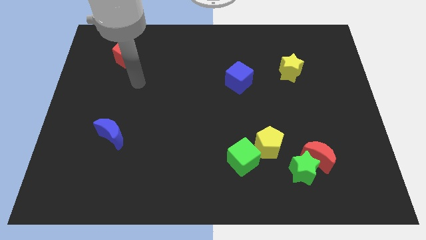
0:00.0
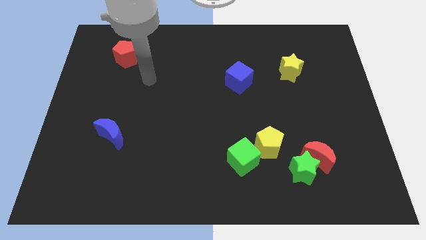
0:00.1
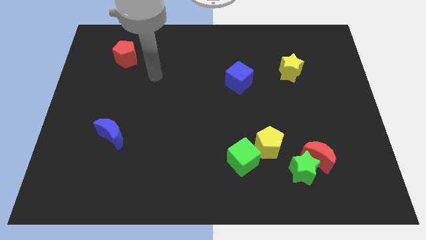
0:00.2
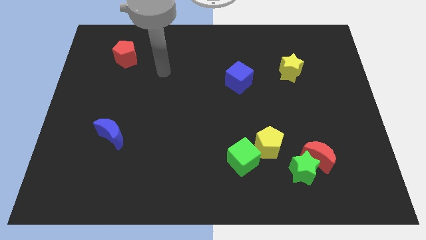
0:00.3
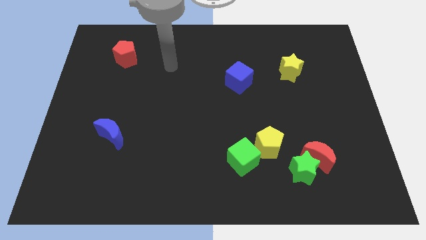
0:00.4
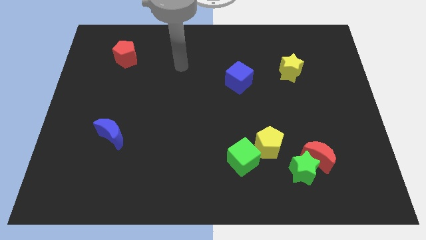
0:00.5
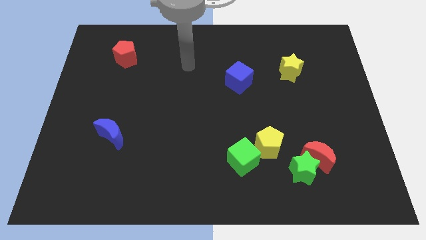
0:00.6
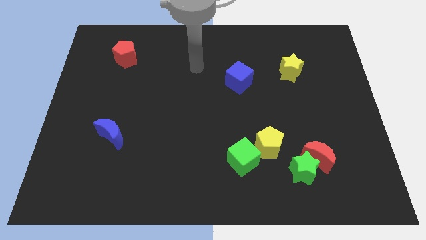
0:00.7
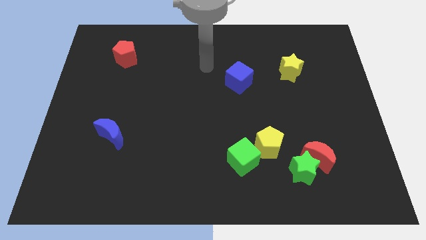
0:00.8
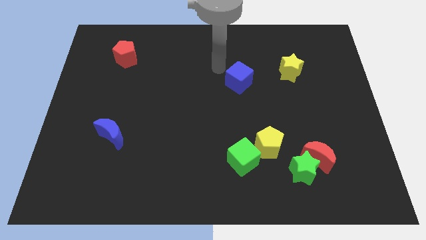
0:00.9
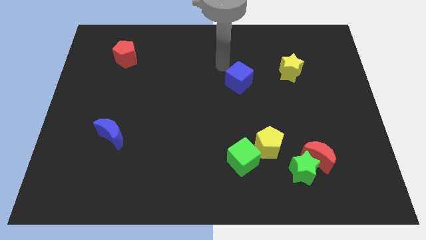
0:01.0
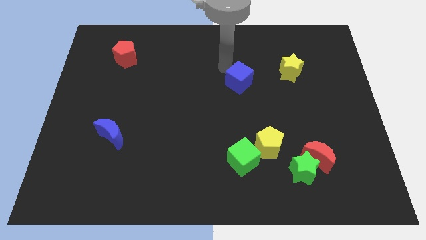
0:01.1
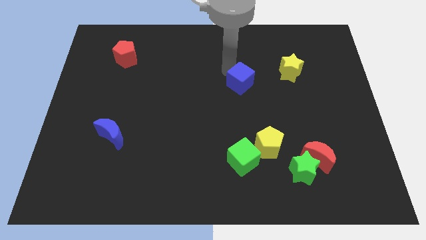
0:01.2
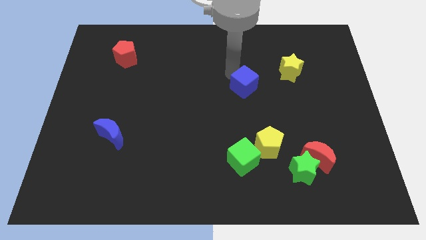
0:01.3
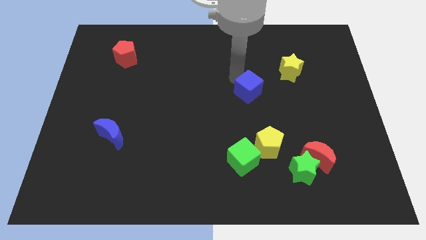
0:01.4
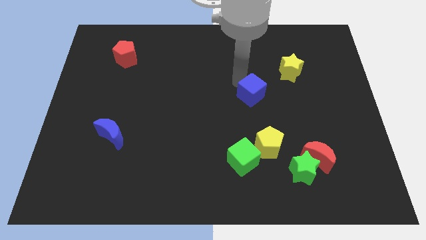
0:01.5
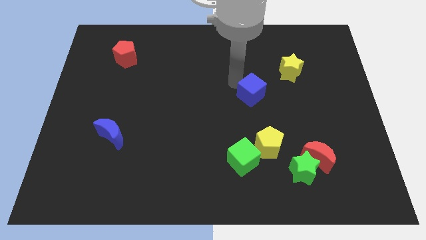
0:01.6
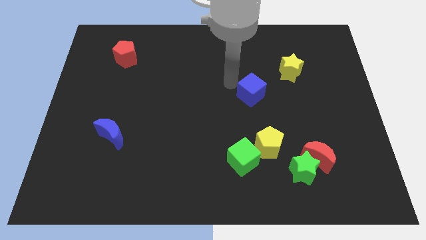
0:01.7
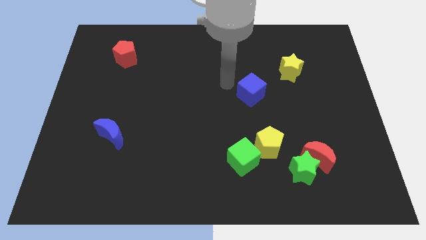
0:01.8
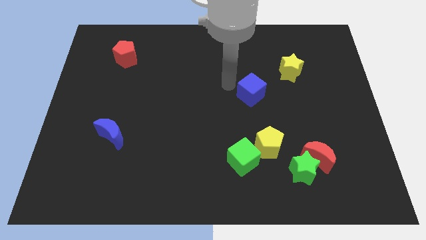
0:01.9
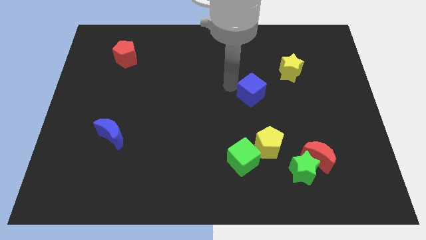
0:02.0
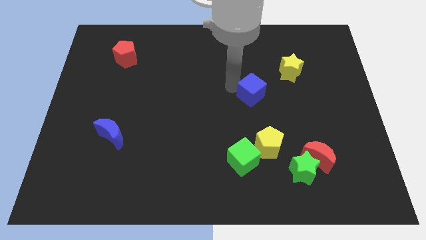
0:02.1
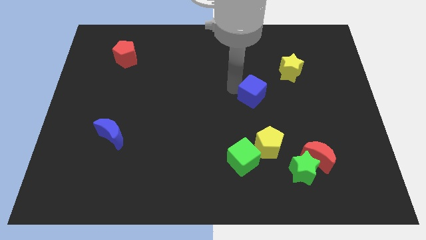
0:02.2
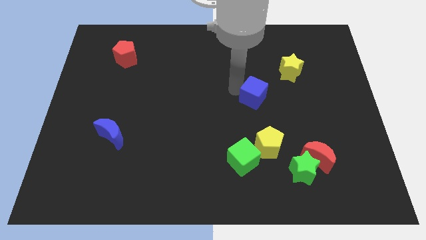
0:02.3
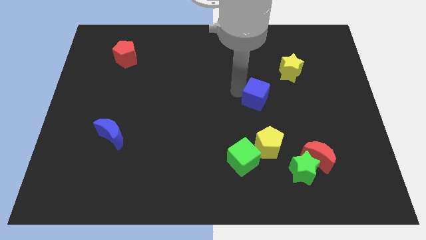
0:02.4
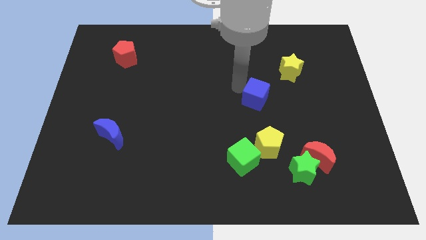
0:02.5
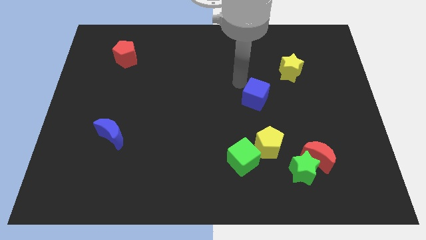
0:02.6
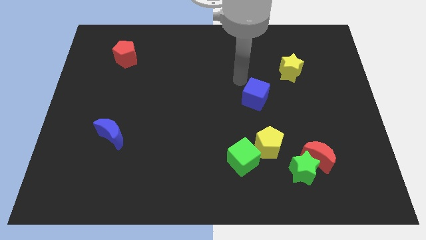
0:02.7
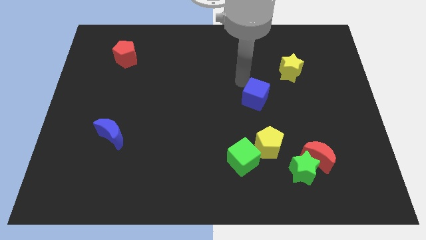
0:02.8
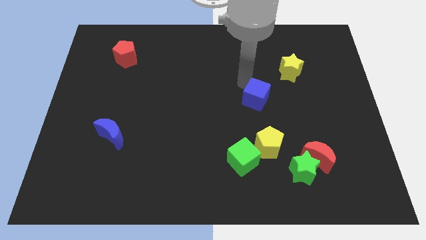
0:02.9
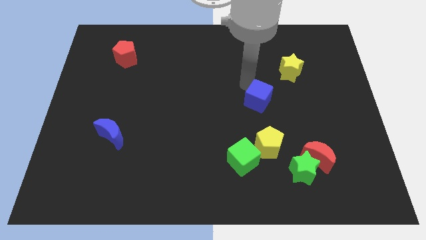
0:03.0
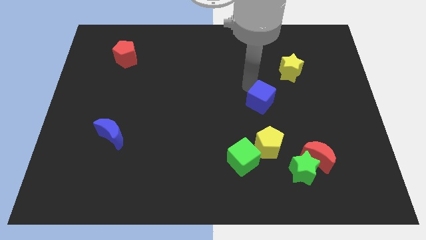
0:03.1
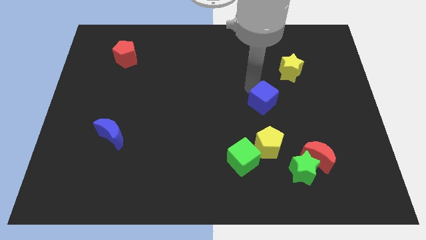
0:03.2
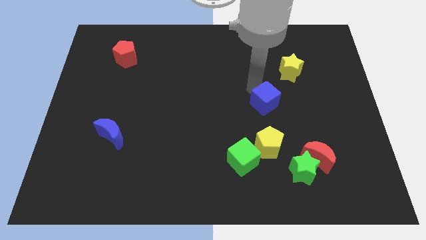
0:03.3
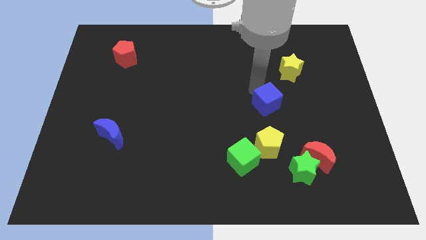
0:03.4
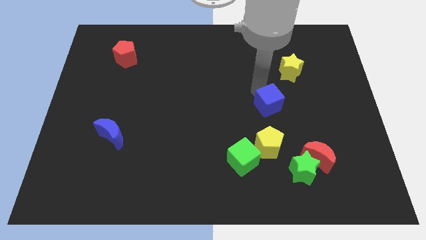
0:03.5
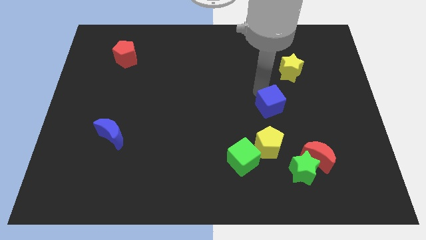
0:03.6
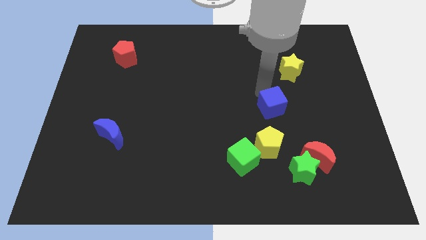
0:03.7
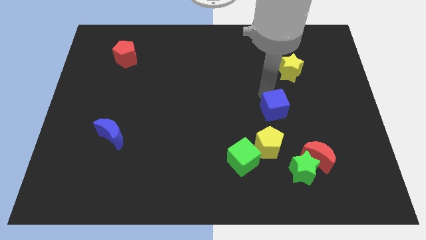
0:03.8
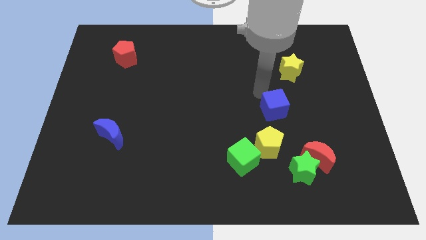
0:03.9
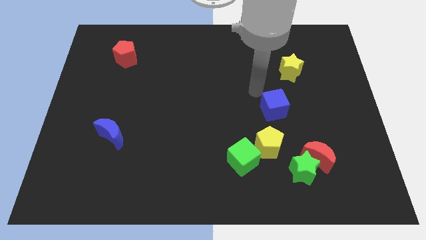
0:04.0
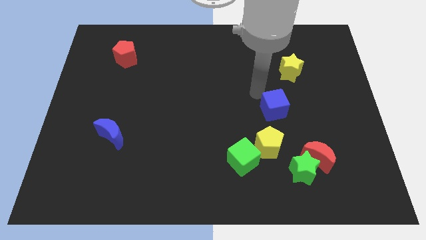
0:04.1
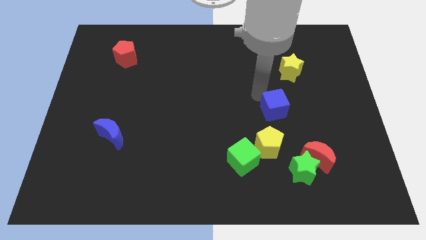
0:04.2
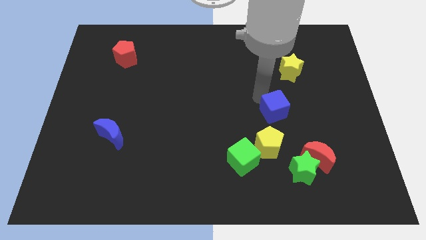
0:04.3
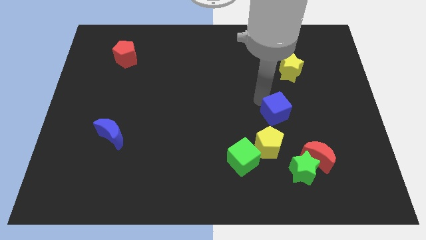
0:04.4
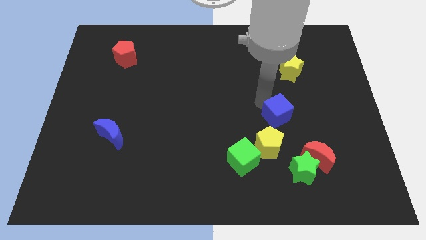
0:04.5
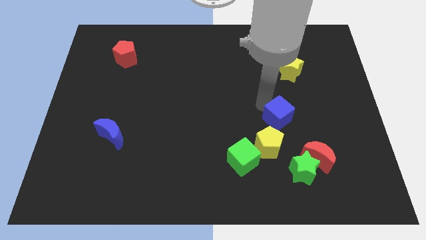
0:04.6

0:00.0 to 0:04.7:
slide the blue cube to the top side of the green star

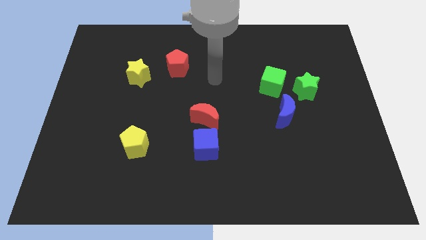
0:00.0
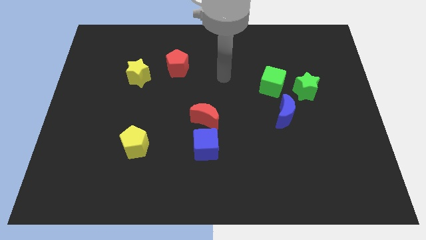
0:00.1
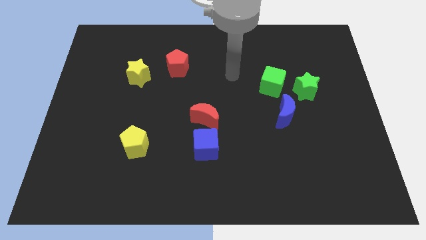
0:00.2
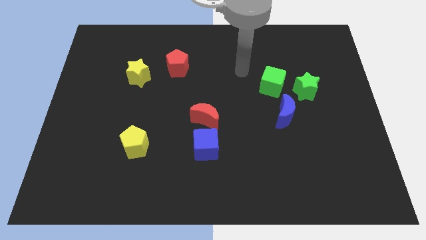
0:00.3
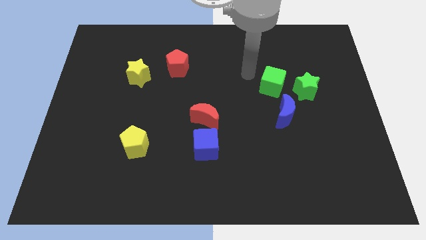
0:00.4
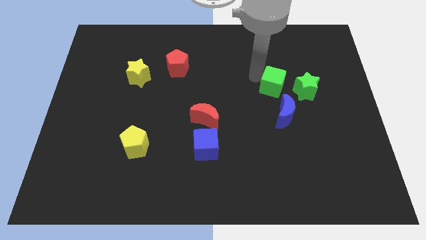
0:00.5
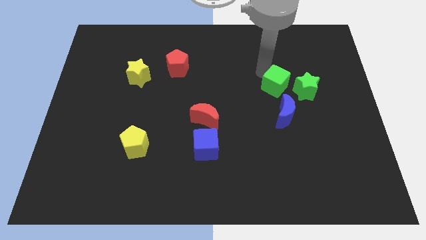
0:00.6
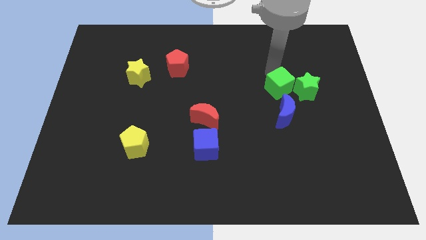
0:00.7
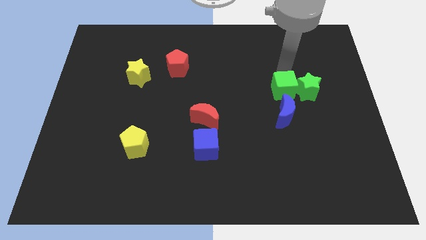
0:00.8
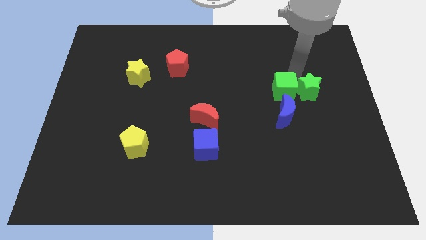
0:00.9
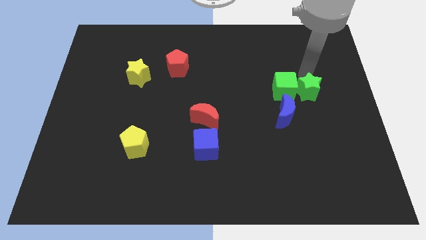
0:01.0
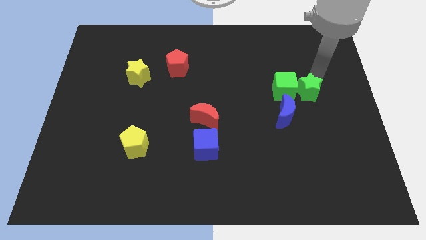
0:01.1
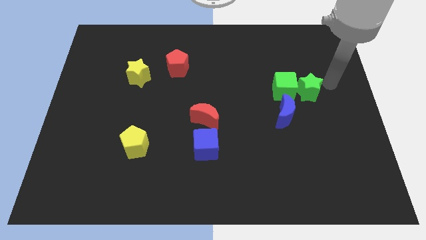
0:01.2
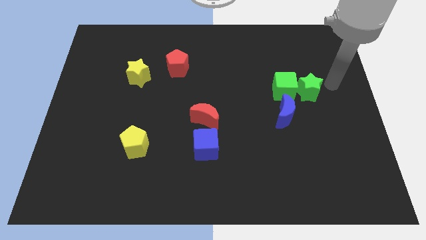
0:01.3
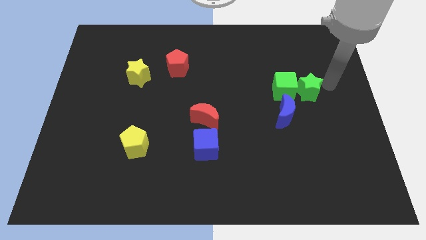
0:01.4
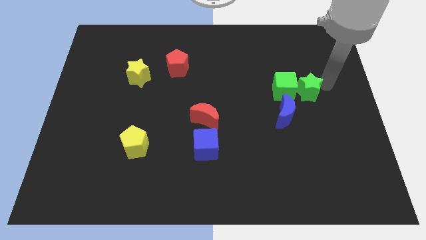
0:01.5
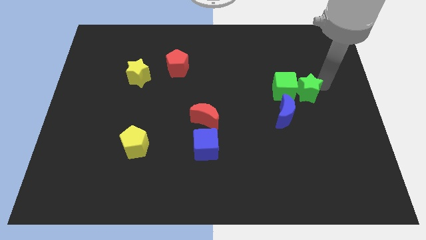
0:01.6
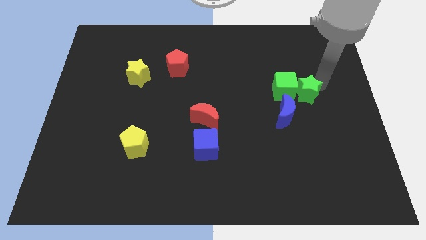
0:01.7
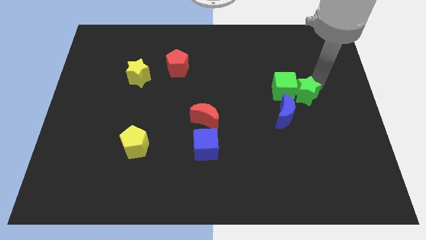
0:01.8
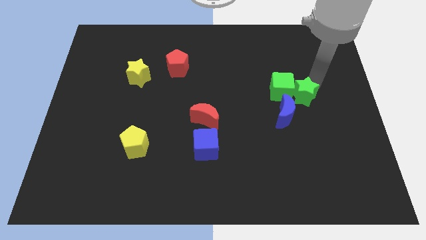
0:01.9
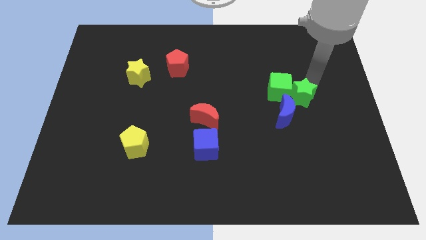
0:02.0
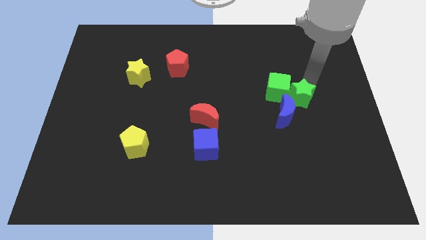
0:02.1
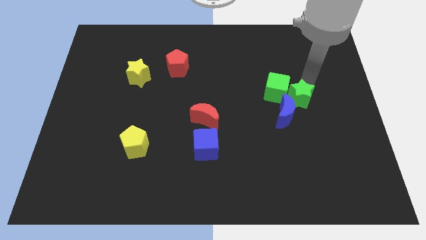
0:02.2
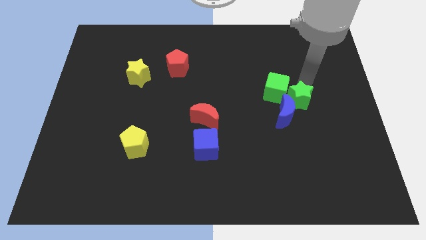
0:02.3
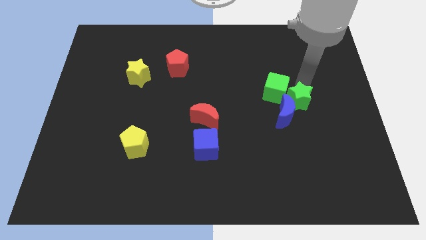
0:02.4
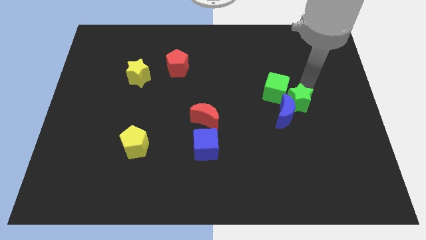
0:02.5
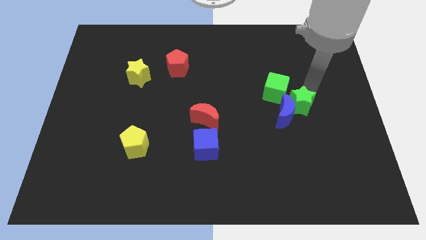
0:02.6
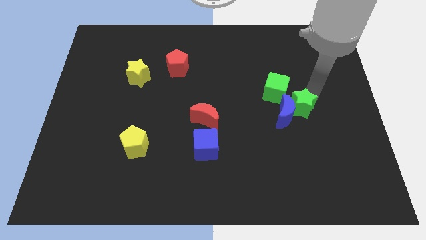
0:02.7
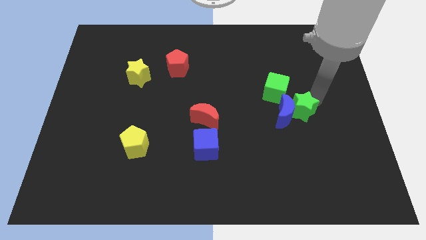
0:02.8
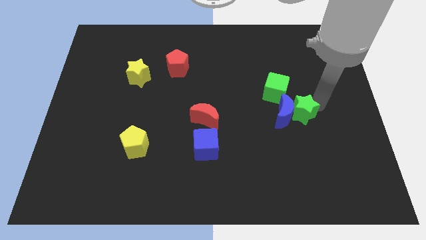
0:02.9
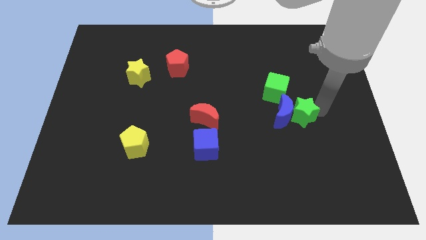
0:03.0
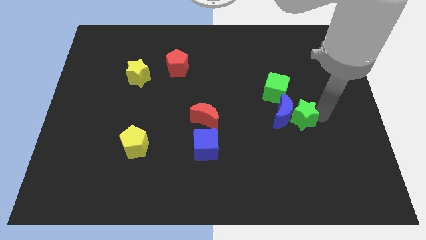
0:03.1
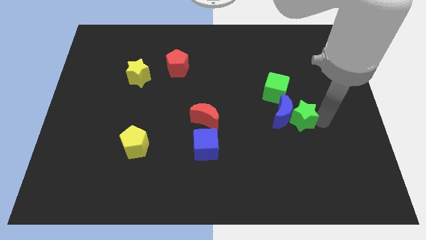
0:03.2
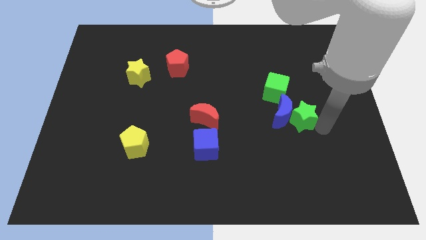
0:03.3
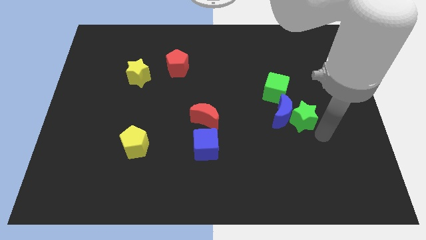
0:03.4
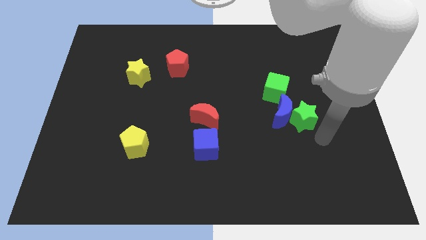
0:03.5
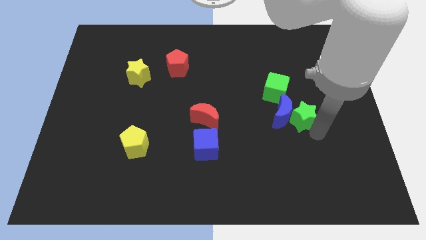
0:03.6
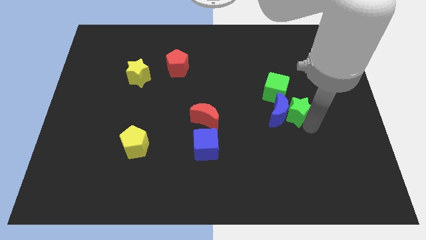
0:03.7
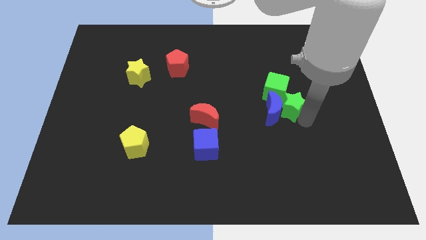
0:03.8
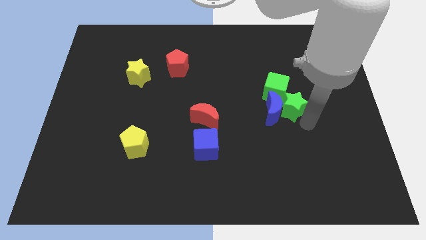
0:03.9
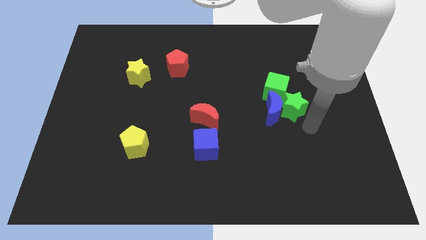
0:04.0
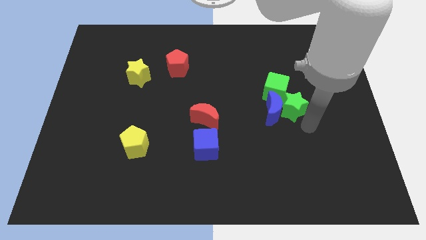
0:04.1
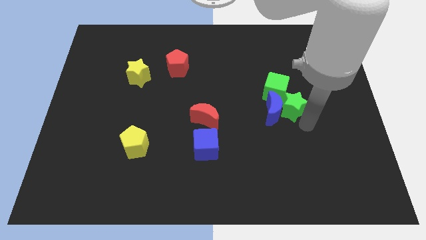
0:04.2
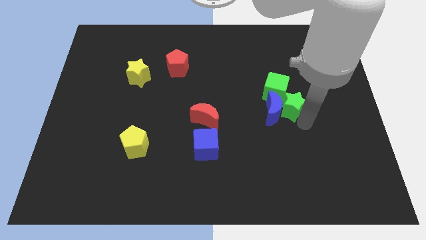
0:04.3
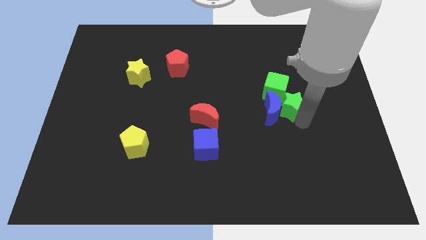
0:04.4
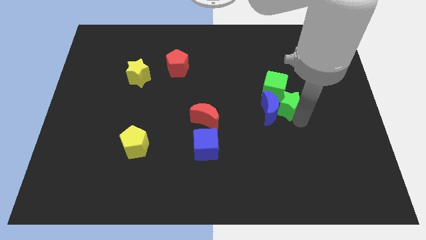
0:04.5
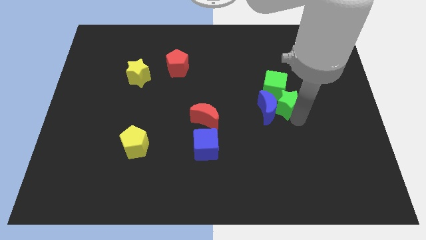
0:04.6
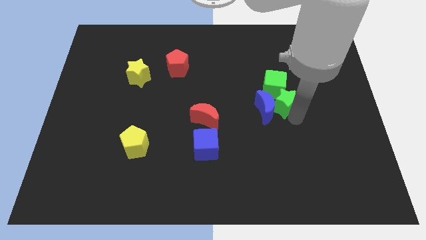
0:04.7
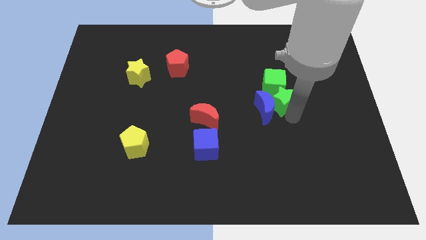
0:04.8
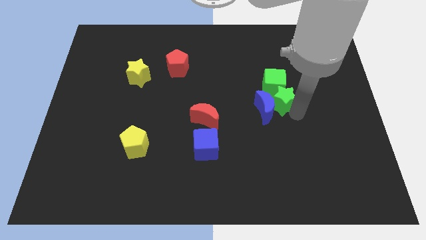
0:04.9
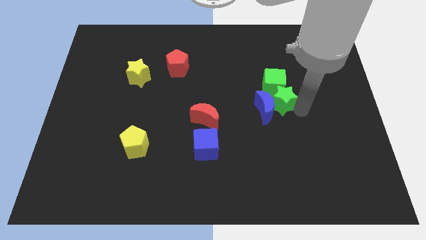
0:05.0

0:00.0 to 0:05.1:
move the green star to the bottom left side of the green cube
